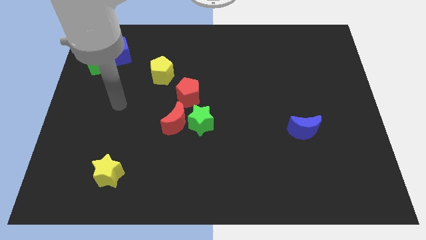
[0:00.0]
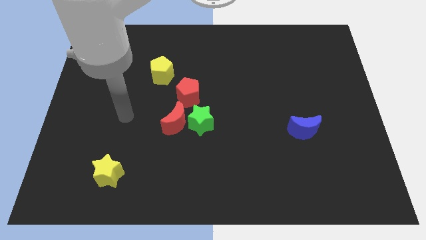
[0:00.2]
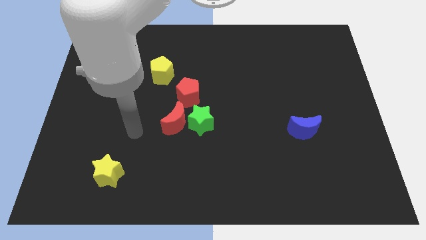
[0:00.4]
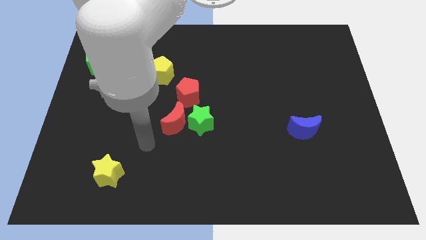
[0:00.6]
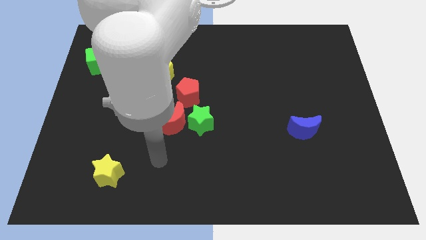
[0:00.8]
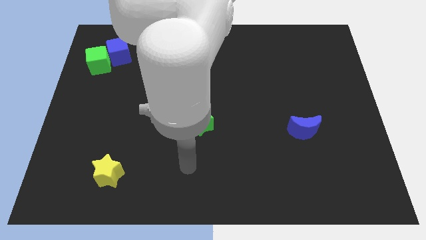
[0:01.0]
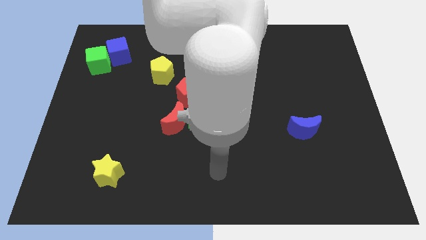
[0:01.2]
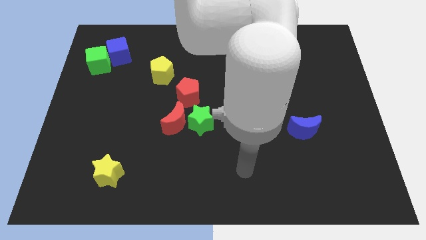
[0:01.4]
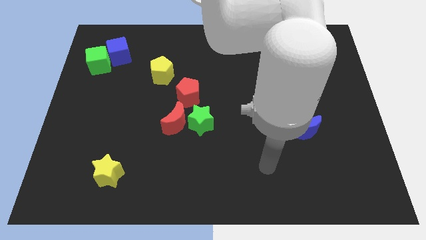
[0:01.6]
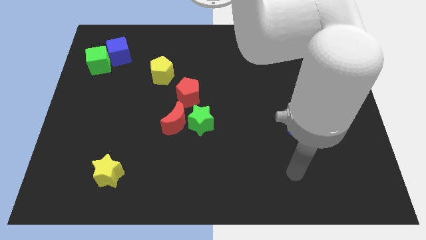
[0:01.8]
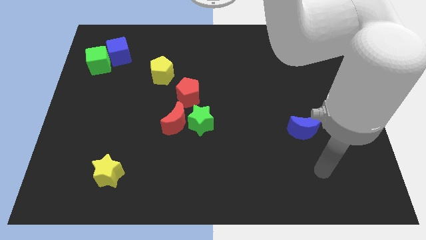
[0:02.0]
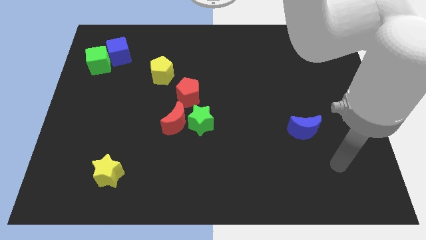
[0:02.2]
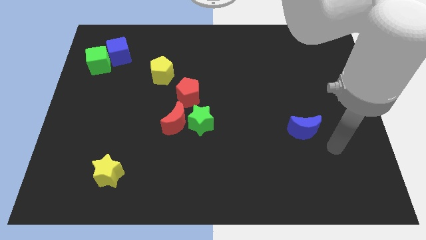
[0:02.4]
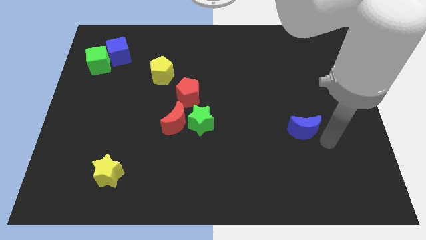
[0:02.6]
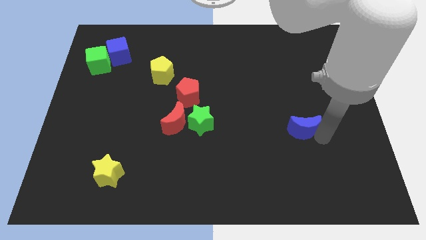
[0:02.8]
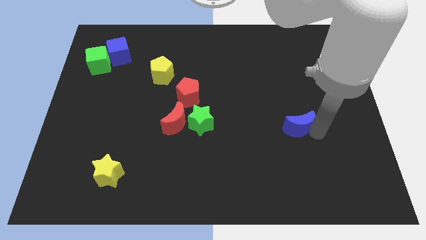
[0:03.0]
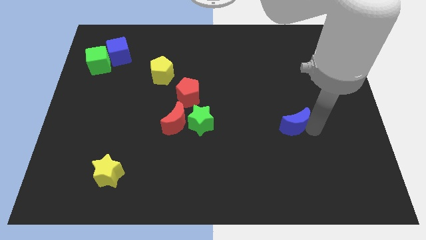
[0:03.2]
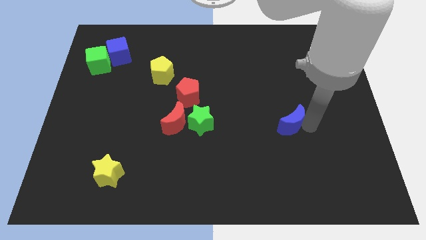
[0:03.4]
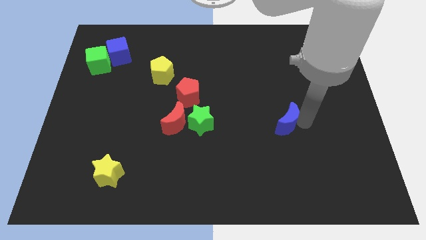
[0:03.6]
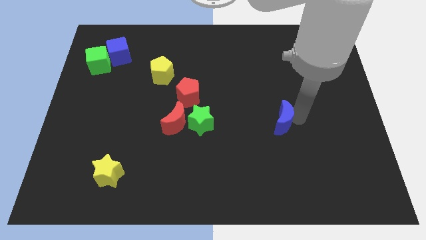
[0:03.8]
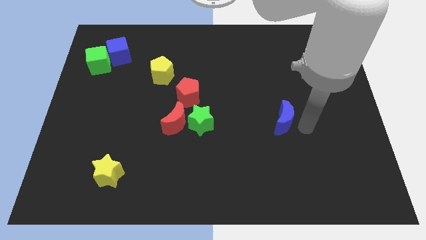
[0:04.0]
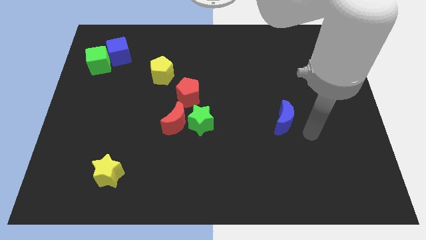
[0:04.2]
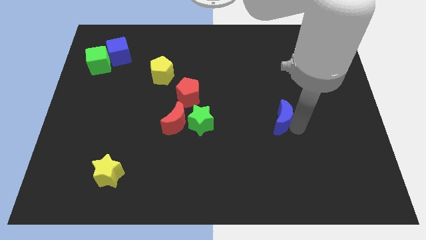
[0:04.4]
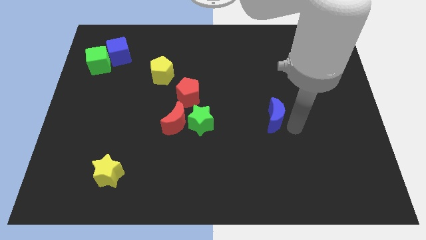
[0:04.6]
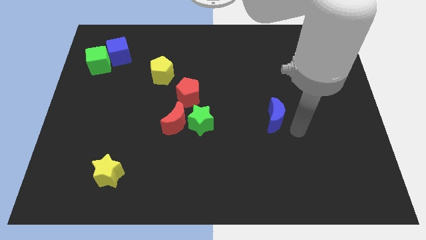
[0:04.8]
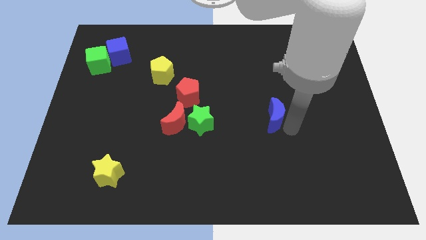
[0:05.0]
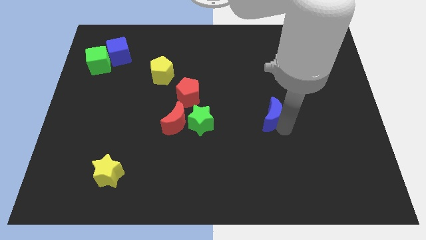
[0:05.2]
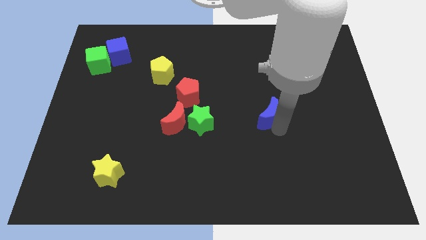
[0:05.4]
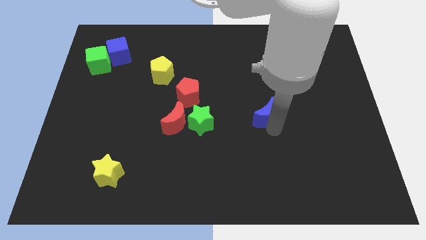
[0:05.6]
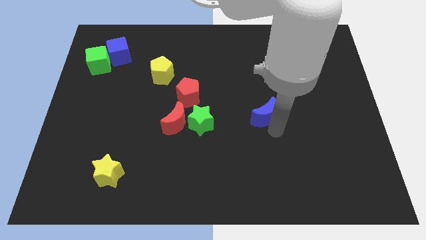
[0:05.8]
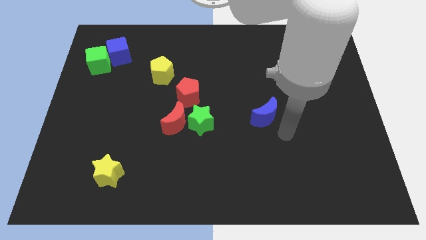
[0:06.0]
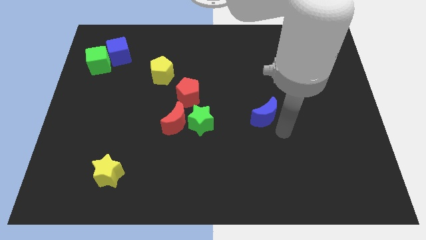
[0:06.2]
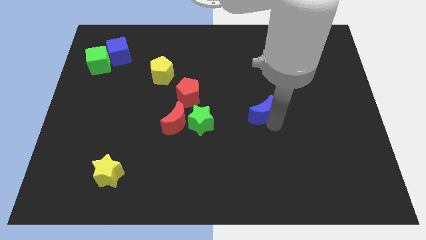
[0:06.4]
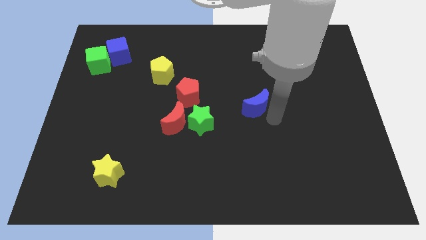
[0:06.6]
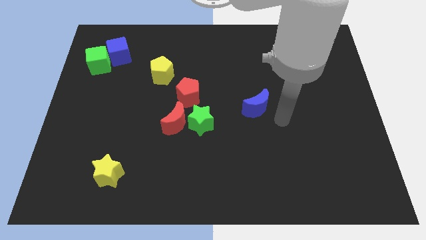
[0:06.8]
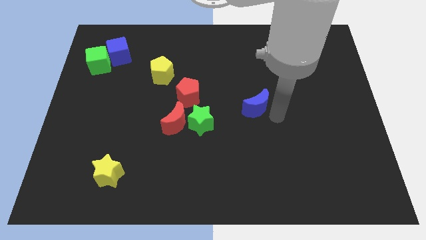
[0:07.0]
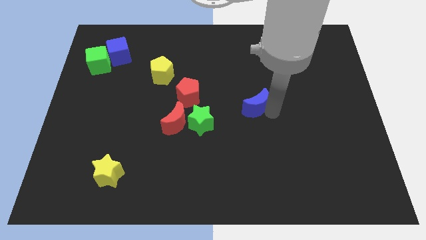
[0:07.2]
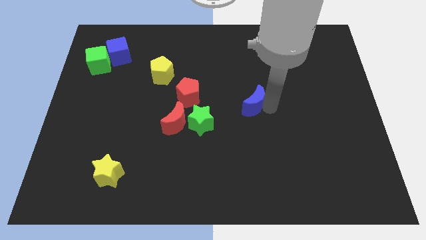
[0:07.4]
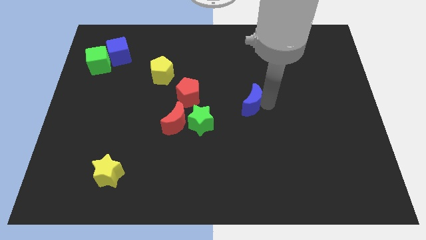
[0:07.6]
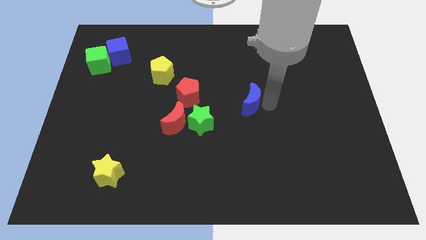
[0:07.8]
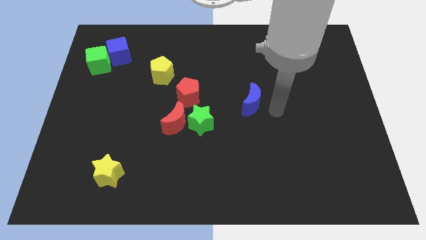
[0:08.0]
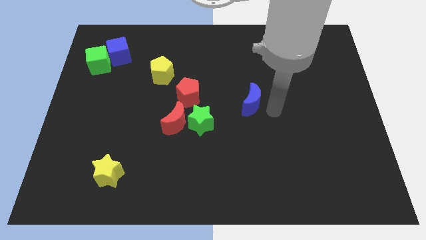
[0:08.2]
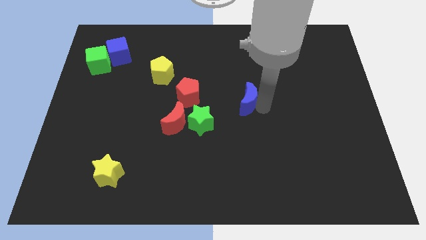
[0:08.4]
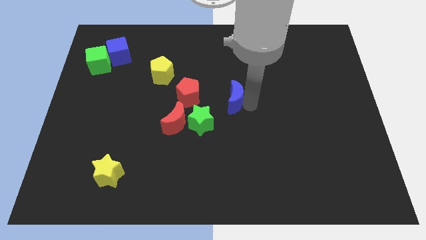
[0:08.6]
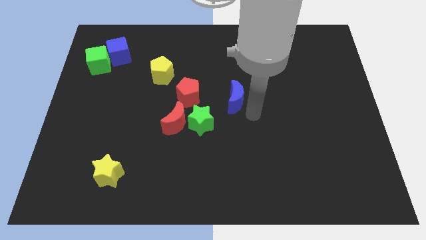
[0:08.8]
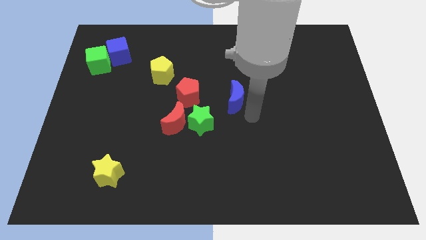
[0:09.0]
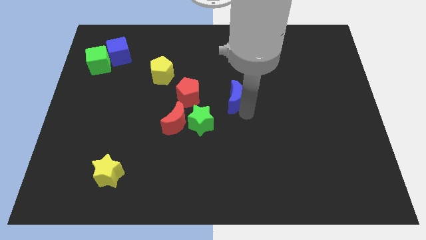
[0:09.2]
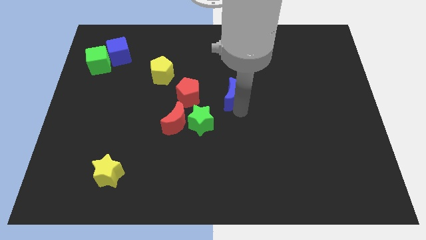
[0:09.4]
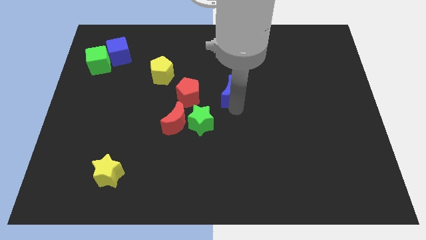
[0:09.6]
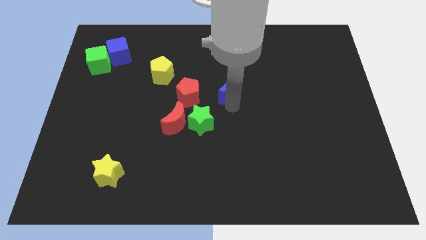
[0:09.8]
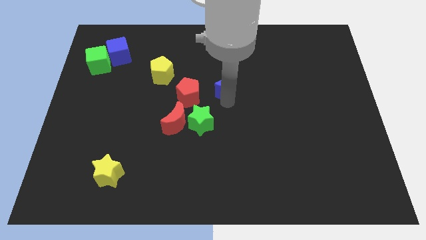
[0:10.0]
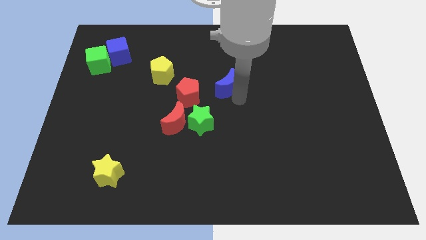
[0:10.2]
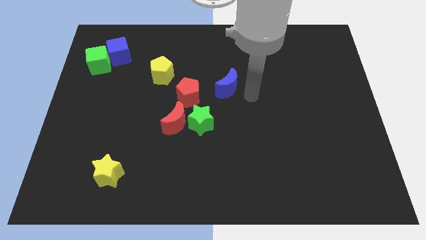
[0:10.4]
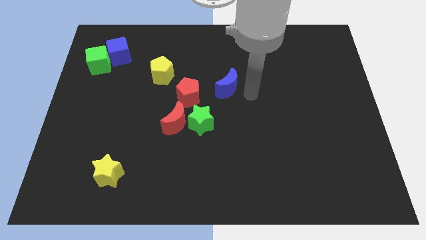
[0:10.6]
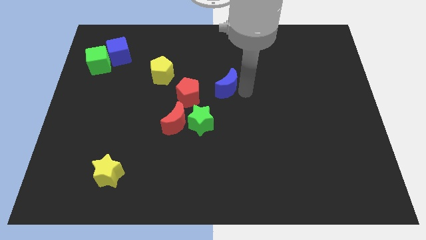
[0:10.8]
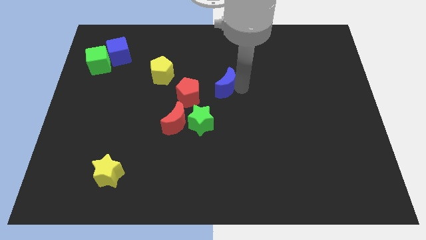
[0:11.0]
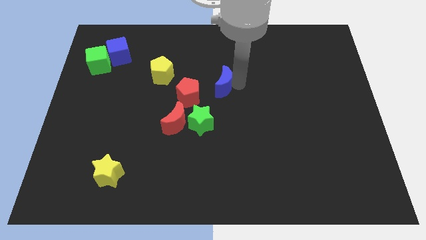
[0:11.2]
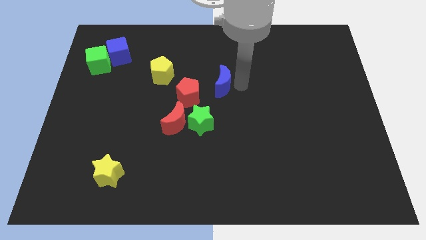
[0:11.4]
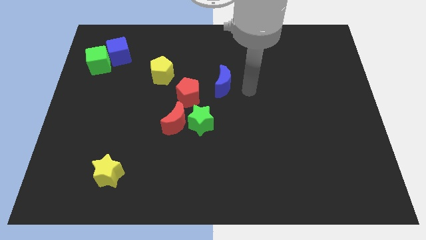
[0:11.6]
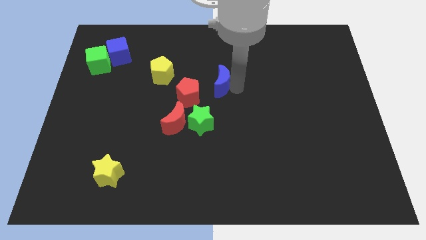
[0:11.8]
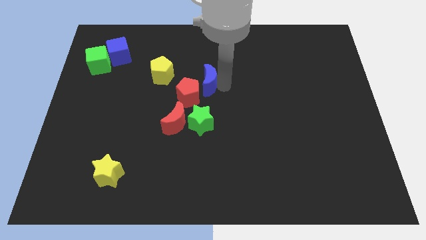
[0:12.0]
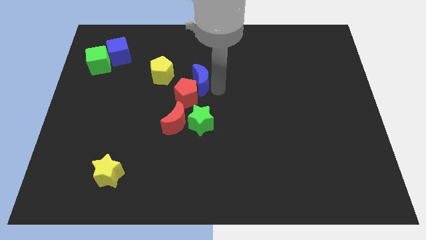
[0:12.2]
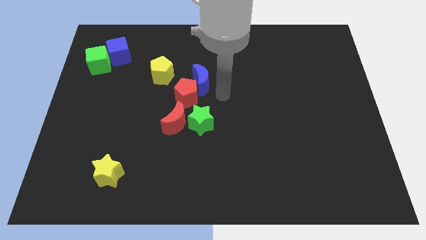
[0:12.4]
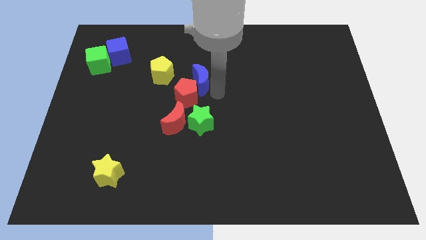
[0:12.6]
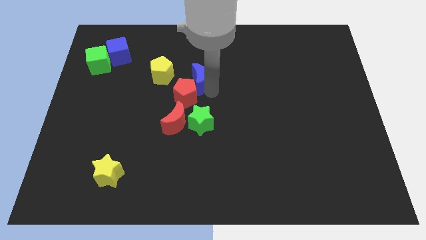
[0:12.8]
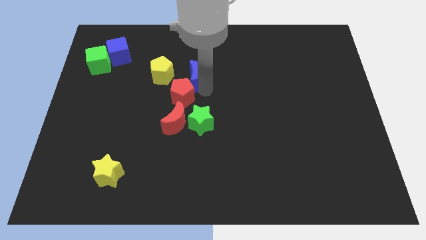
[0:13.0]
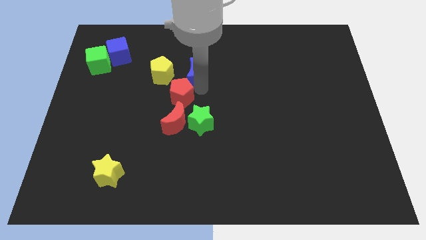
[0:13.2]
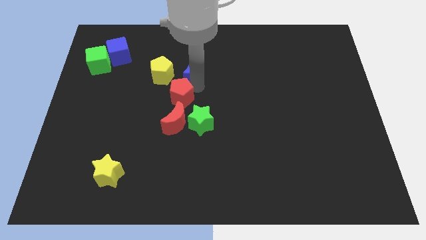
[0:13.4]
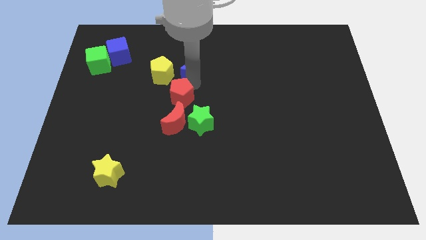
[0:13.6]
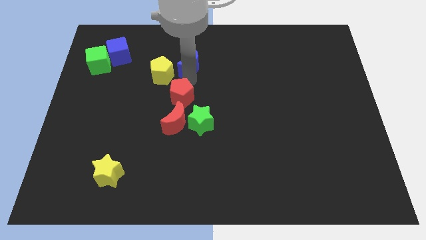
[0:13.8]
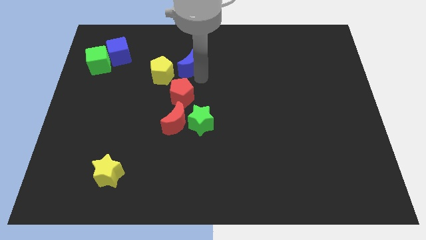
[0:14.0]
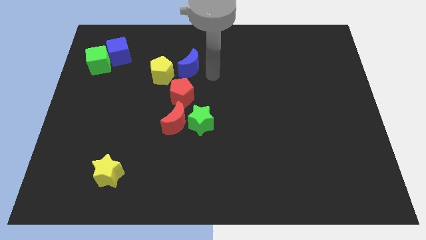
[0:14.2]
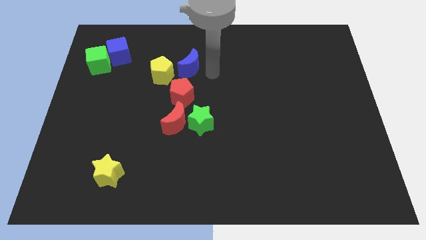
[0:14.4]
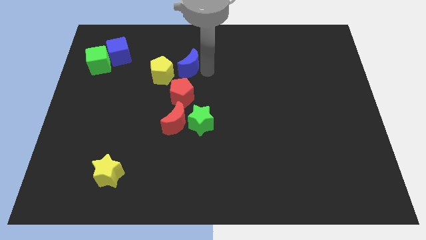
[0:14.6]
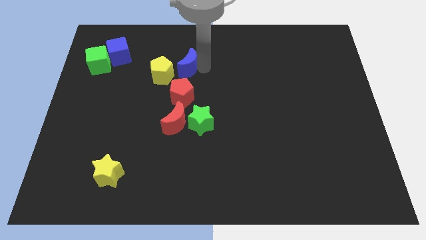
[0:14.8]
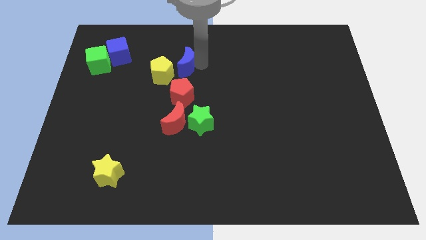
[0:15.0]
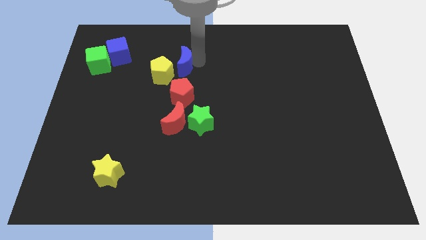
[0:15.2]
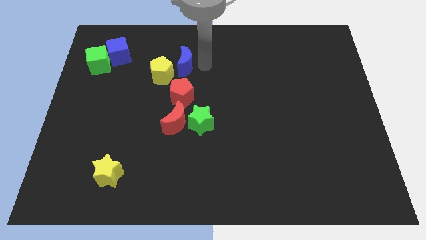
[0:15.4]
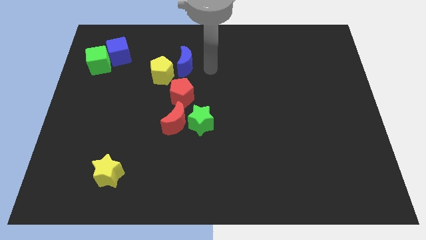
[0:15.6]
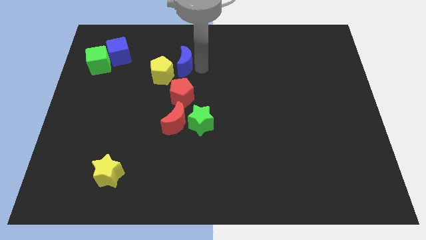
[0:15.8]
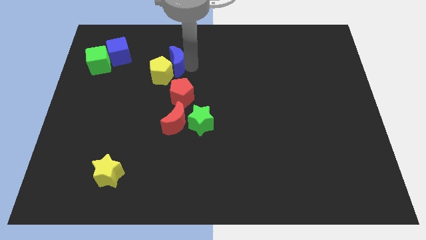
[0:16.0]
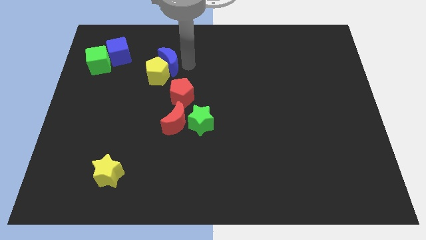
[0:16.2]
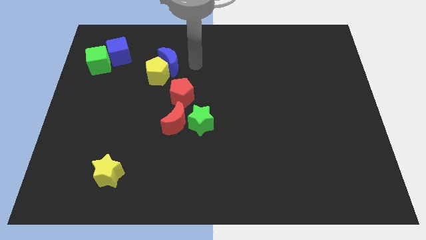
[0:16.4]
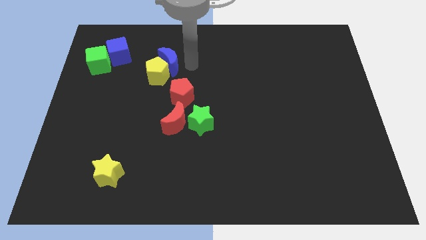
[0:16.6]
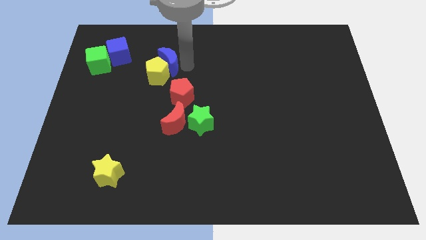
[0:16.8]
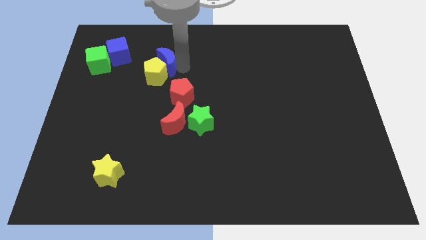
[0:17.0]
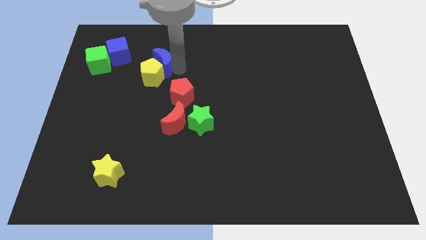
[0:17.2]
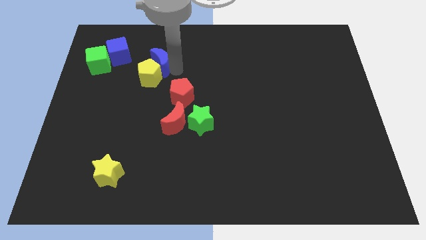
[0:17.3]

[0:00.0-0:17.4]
push the blue moon to the right side of the green cube
